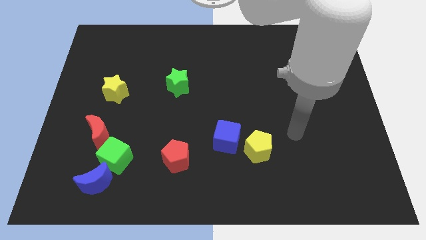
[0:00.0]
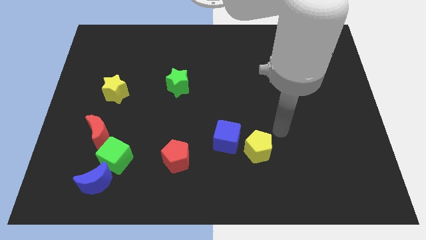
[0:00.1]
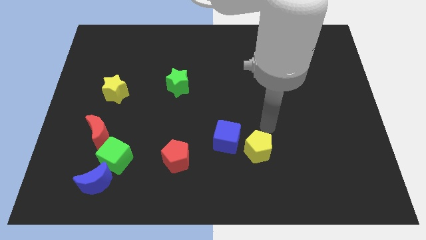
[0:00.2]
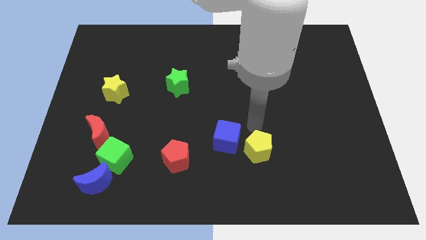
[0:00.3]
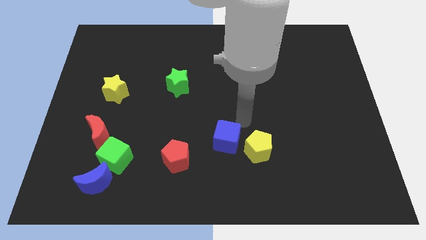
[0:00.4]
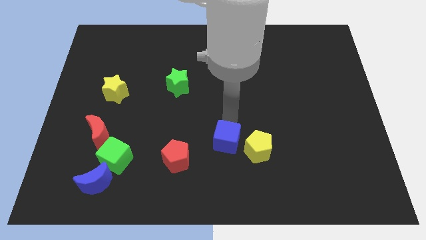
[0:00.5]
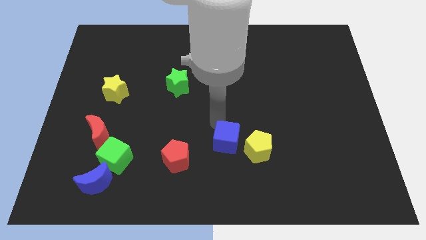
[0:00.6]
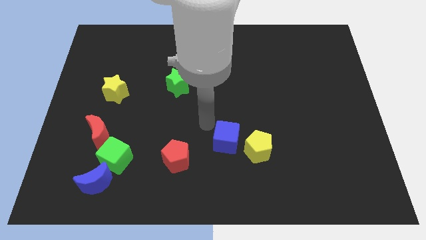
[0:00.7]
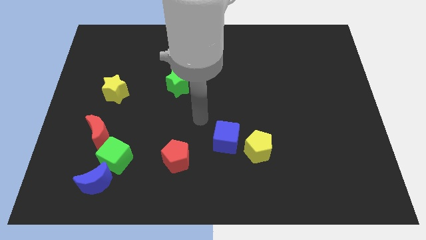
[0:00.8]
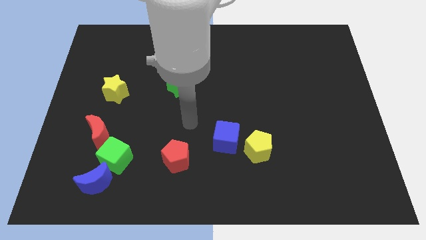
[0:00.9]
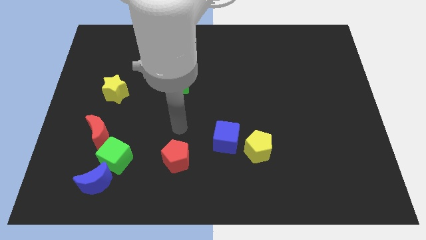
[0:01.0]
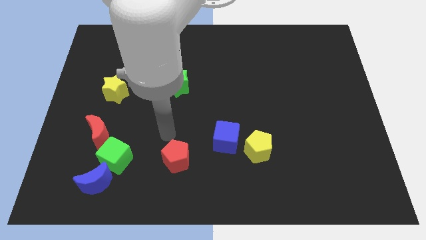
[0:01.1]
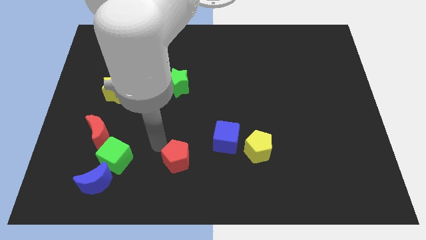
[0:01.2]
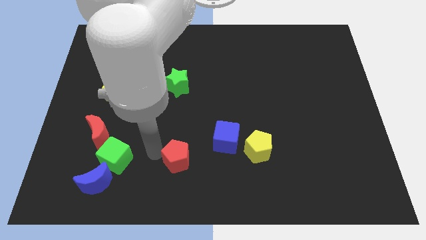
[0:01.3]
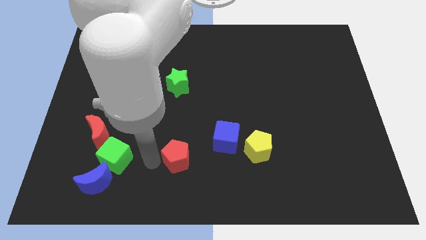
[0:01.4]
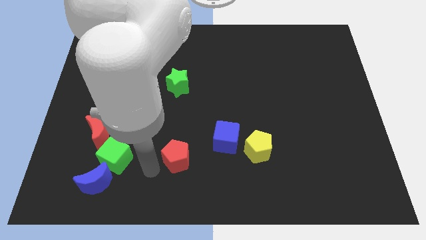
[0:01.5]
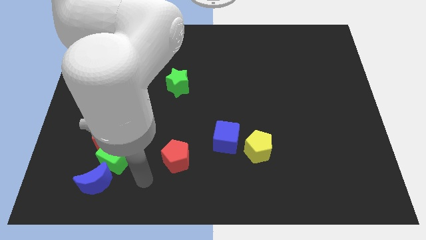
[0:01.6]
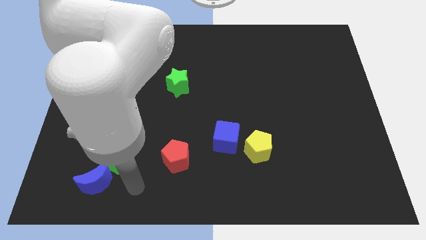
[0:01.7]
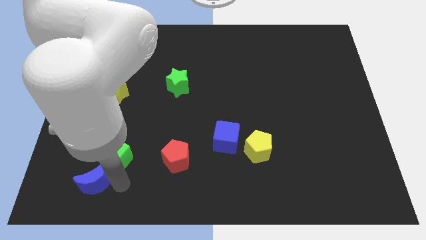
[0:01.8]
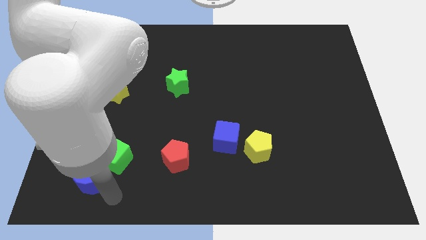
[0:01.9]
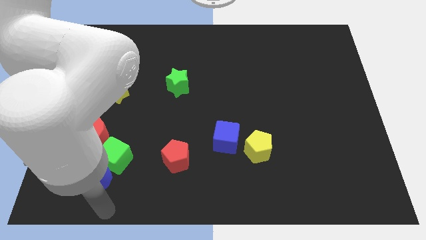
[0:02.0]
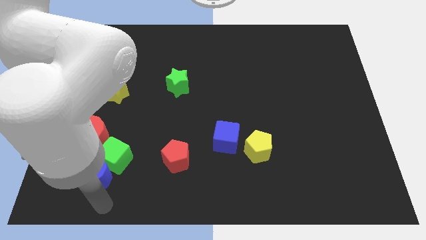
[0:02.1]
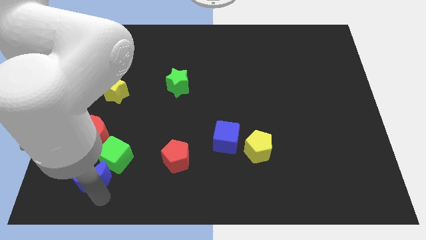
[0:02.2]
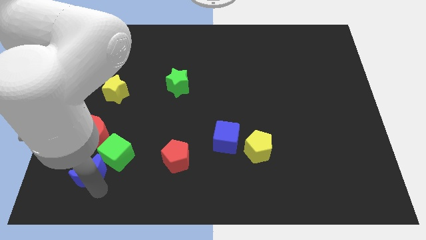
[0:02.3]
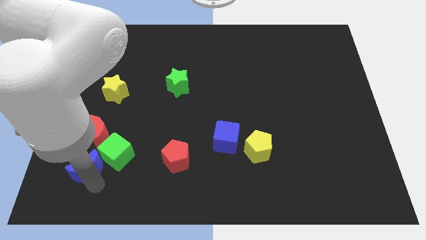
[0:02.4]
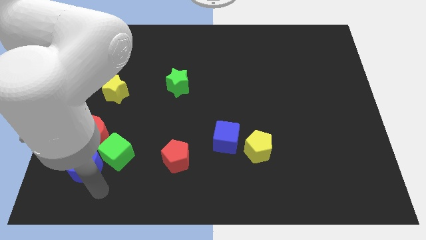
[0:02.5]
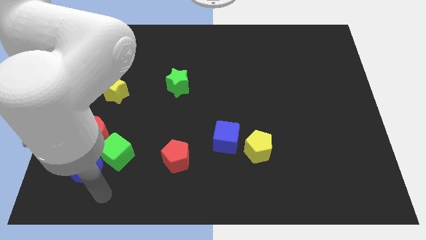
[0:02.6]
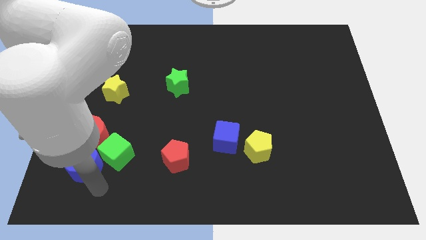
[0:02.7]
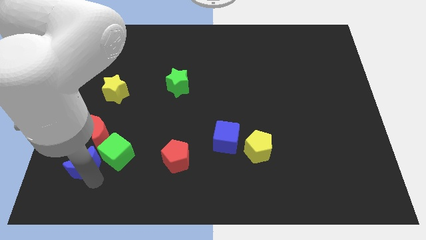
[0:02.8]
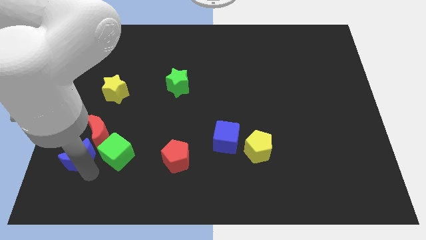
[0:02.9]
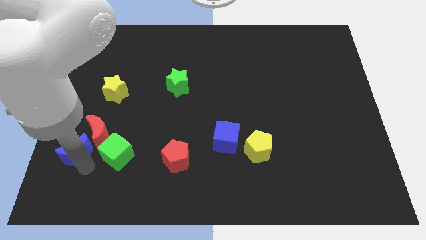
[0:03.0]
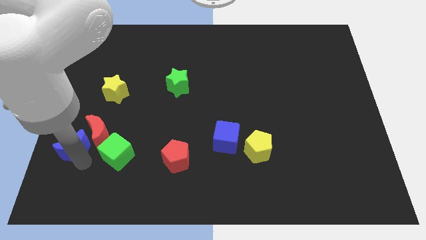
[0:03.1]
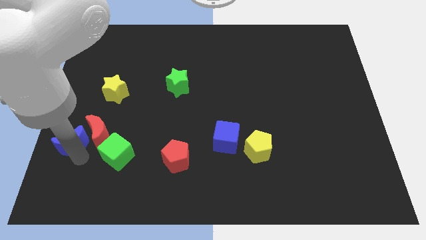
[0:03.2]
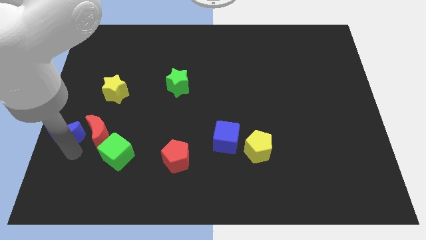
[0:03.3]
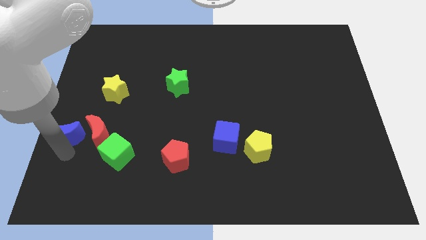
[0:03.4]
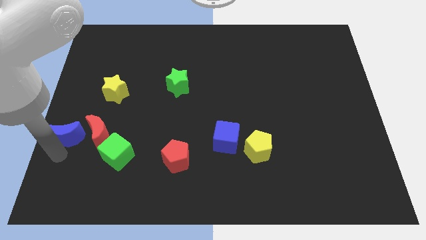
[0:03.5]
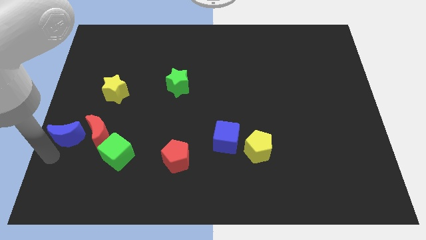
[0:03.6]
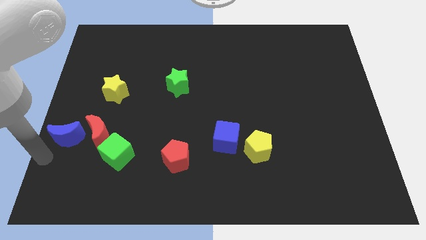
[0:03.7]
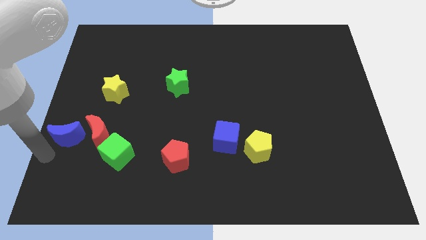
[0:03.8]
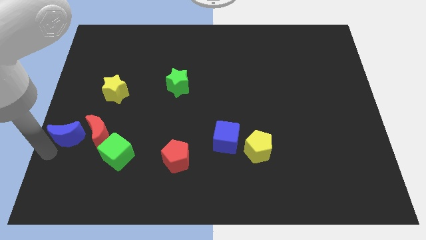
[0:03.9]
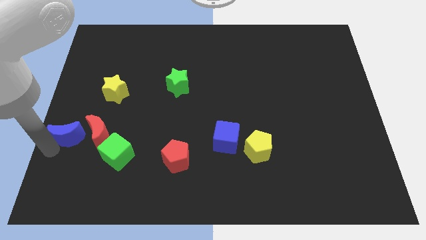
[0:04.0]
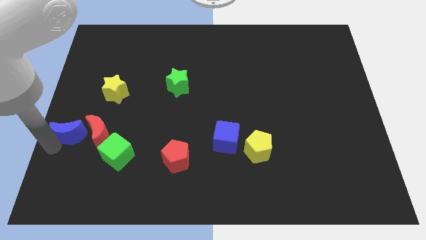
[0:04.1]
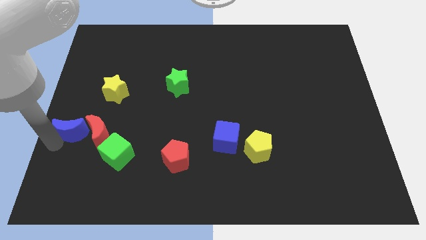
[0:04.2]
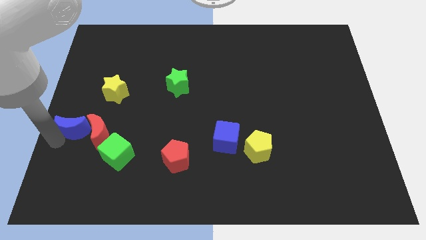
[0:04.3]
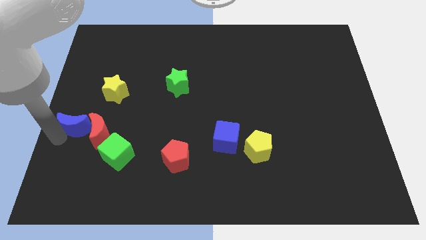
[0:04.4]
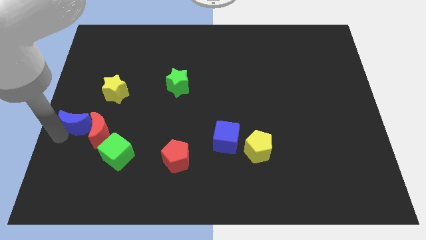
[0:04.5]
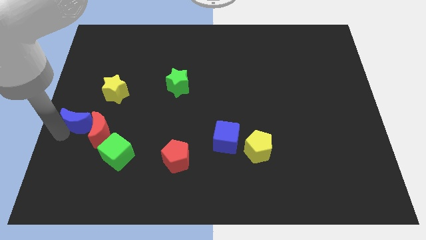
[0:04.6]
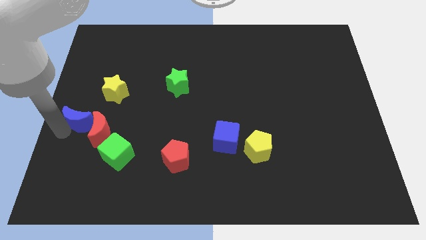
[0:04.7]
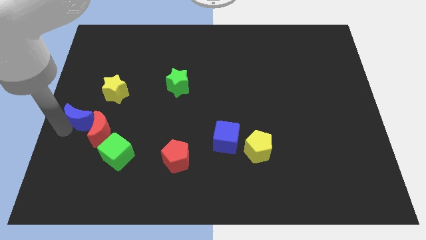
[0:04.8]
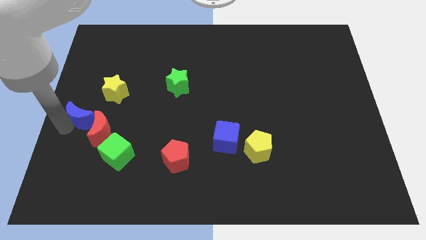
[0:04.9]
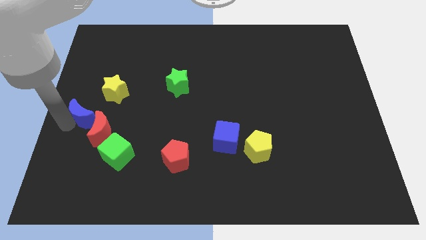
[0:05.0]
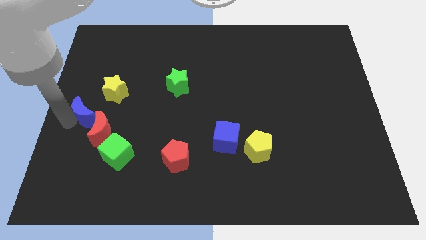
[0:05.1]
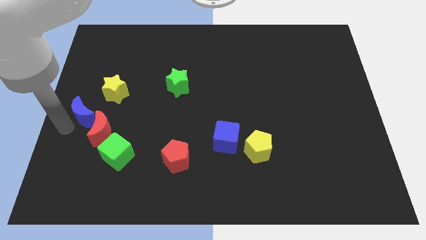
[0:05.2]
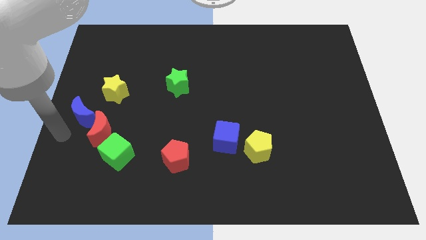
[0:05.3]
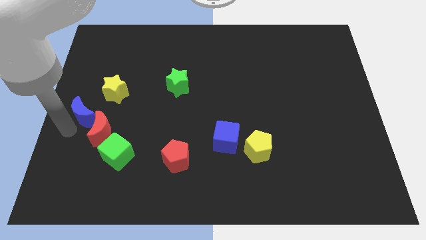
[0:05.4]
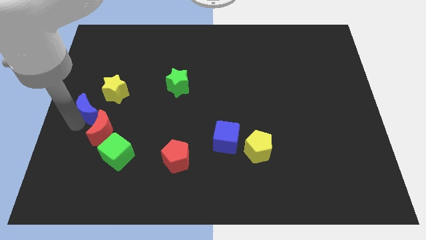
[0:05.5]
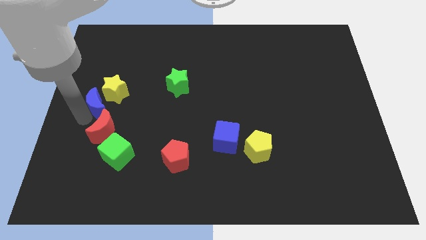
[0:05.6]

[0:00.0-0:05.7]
push the blue moon to the yellow star

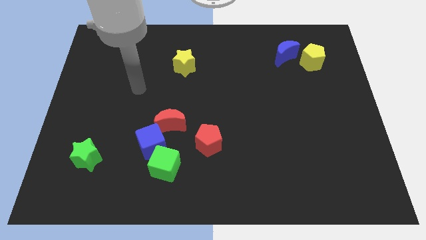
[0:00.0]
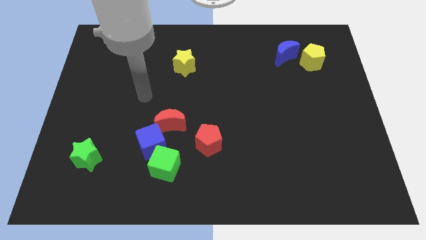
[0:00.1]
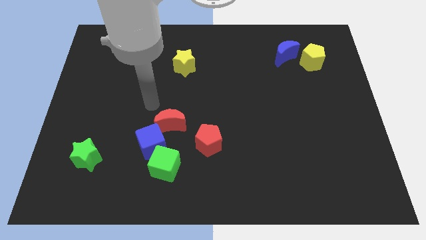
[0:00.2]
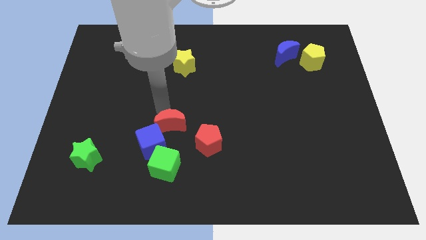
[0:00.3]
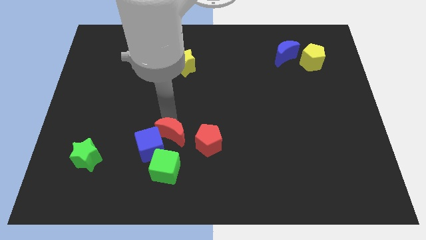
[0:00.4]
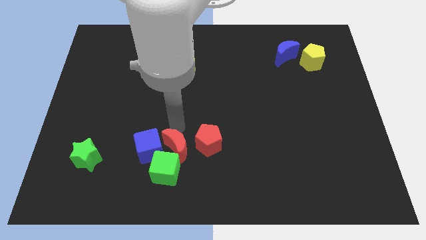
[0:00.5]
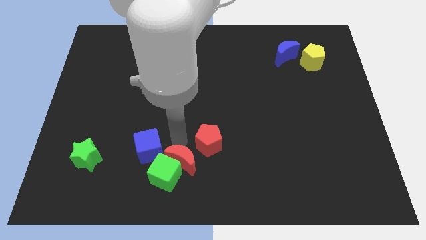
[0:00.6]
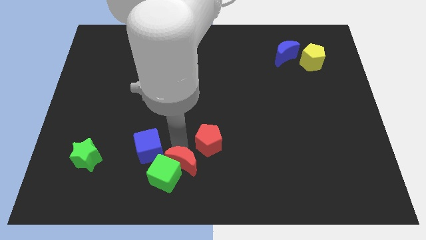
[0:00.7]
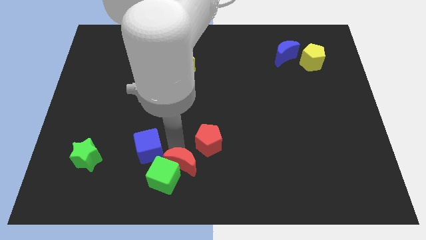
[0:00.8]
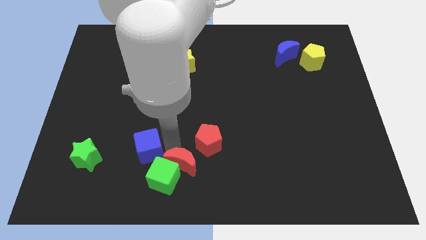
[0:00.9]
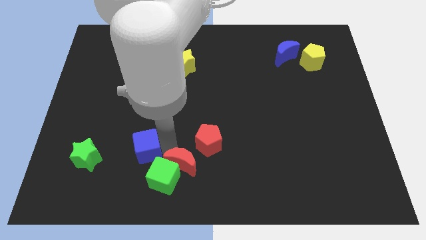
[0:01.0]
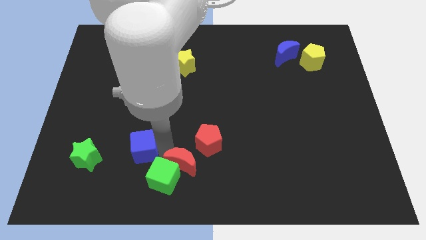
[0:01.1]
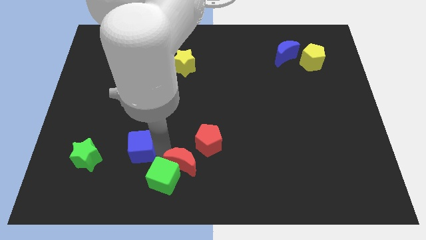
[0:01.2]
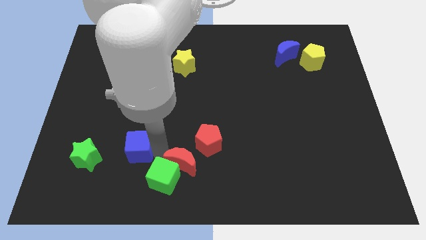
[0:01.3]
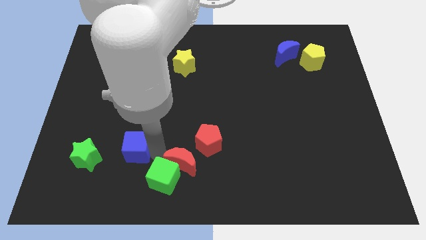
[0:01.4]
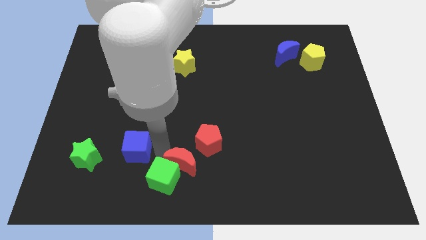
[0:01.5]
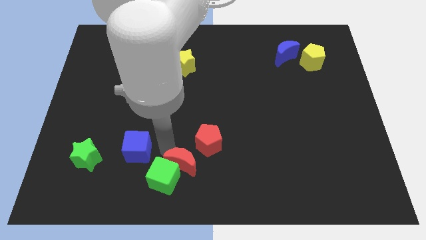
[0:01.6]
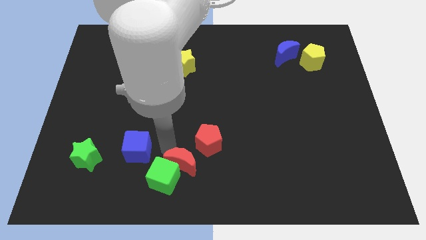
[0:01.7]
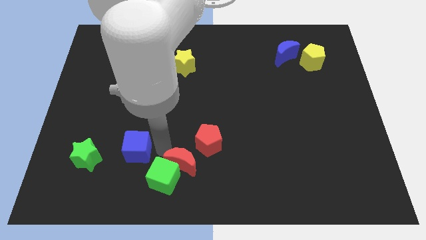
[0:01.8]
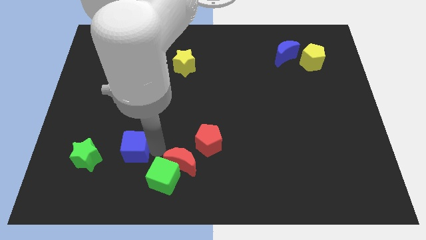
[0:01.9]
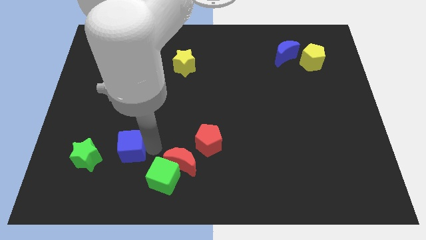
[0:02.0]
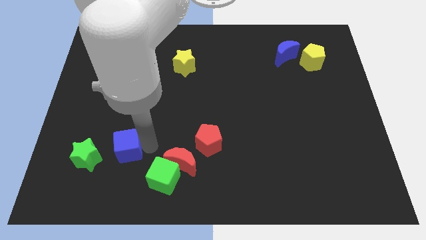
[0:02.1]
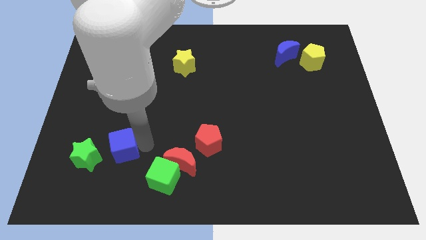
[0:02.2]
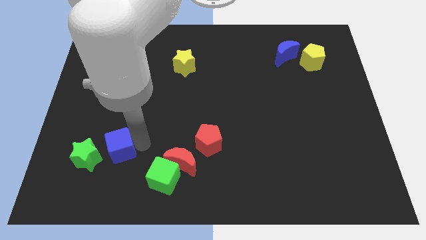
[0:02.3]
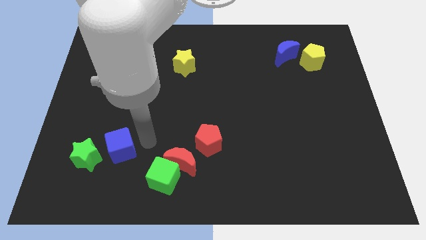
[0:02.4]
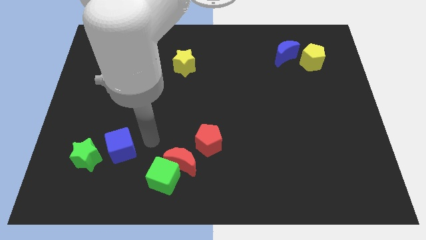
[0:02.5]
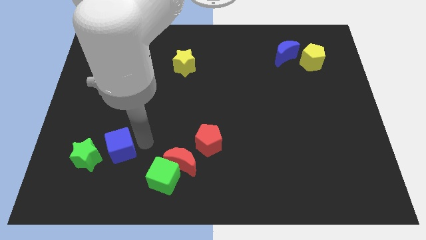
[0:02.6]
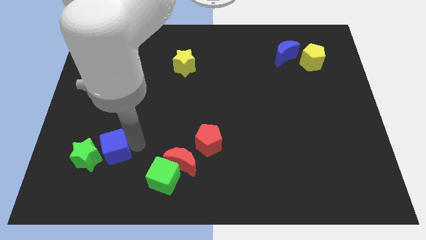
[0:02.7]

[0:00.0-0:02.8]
push the blue cube towards the green star
